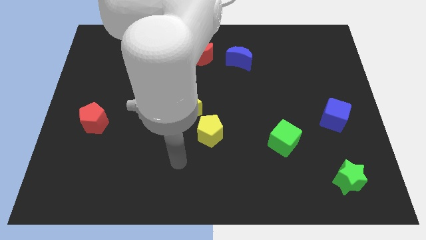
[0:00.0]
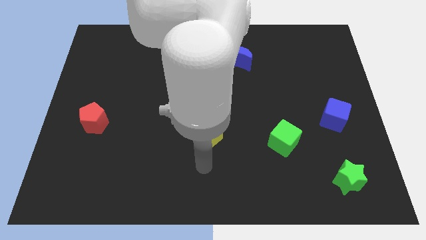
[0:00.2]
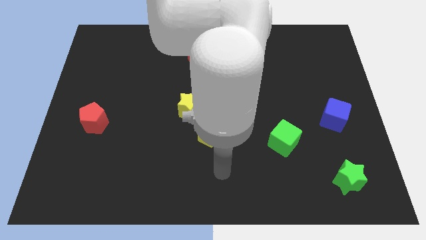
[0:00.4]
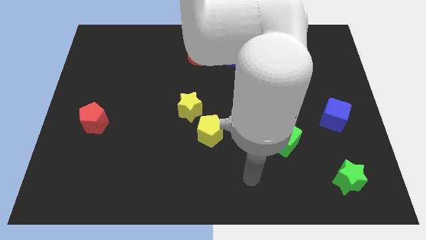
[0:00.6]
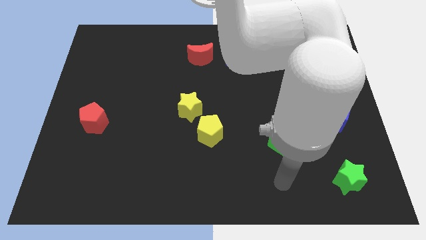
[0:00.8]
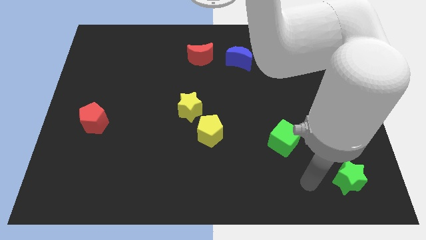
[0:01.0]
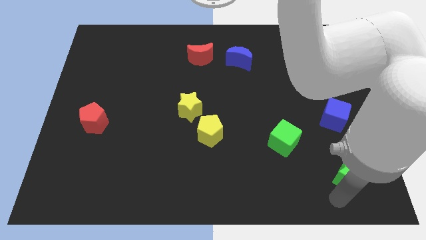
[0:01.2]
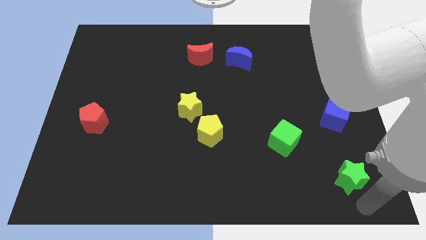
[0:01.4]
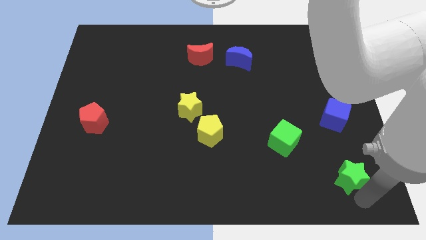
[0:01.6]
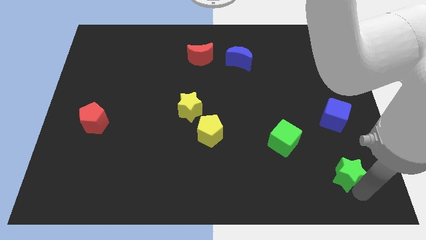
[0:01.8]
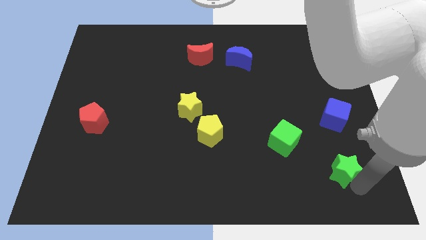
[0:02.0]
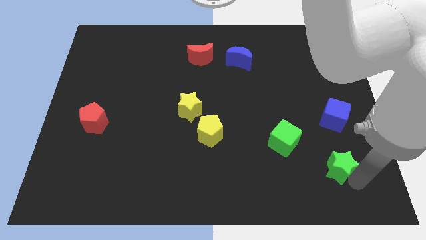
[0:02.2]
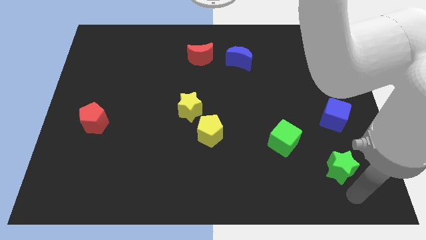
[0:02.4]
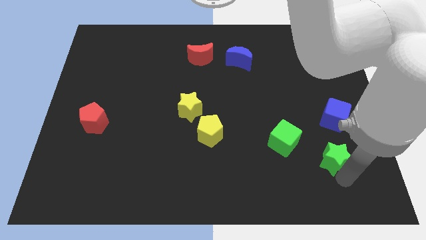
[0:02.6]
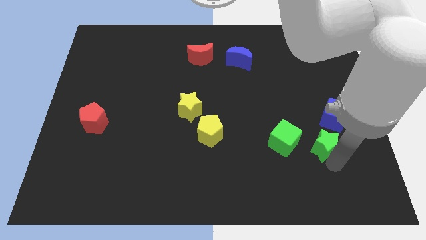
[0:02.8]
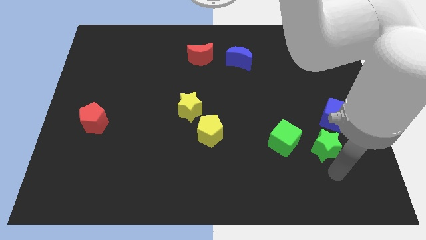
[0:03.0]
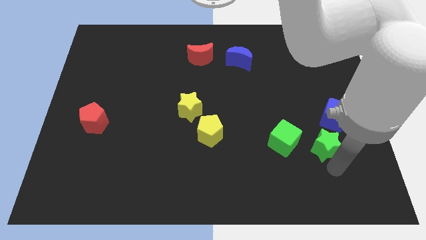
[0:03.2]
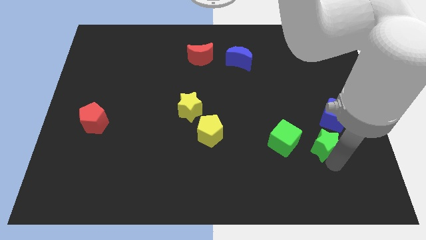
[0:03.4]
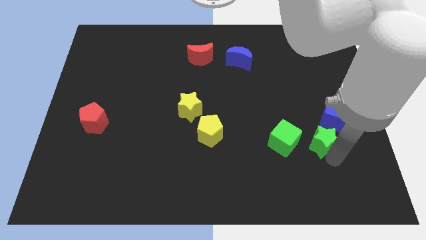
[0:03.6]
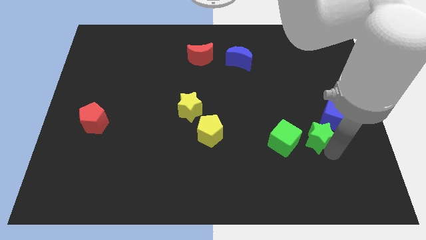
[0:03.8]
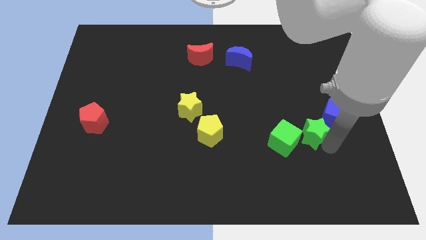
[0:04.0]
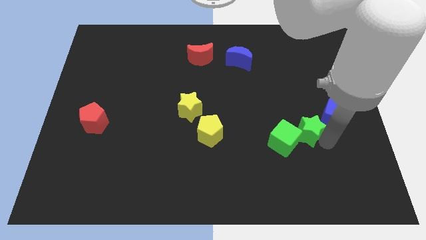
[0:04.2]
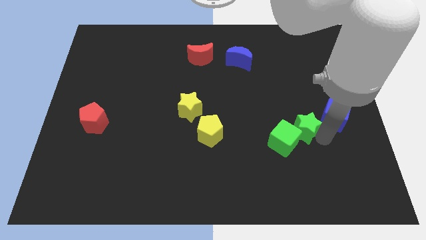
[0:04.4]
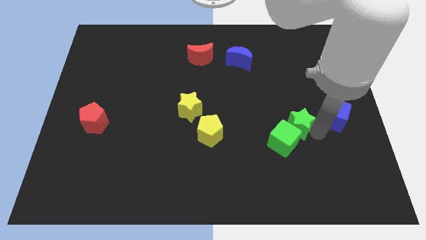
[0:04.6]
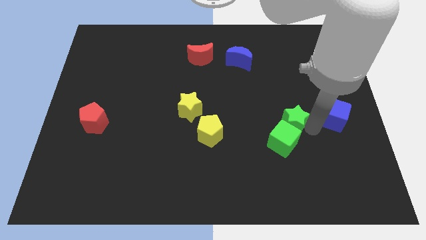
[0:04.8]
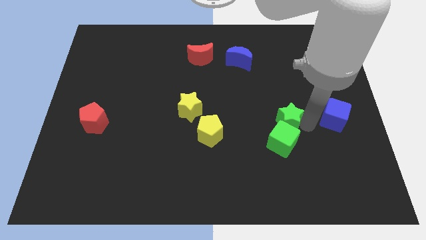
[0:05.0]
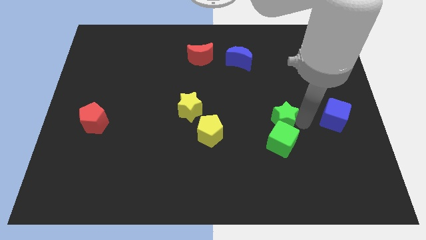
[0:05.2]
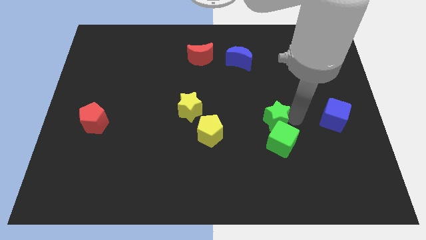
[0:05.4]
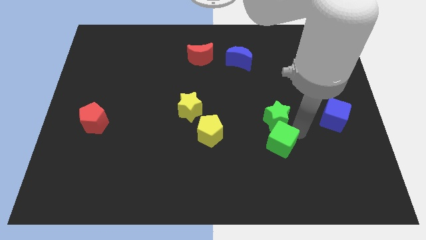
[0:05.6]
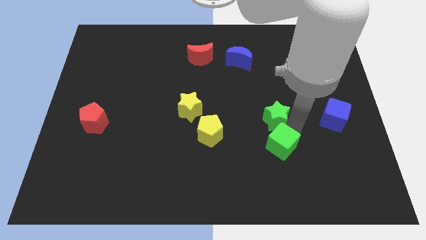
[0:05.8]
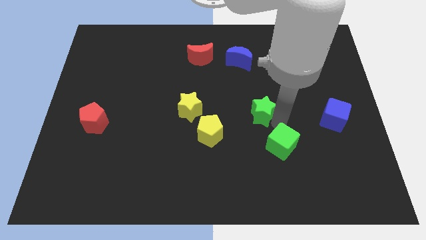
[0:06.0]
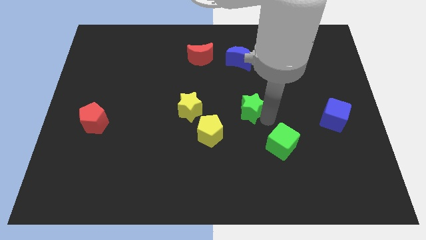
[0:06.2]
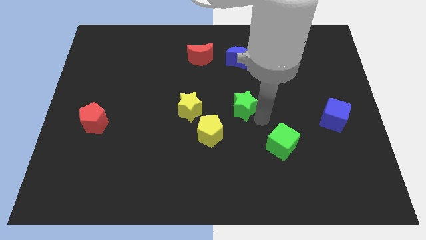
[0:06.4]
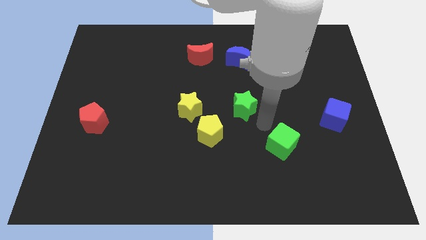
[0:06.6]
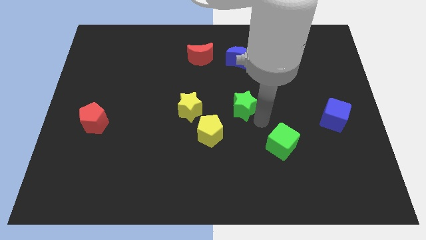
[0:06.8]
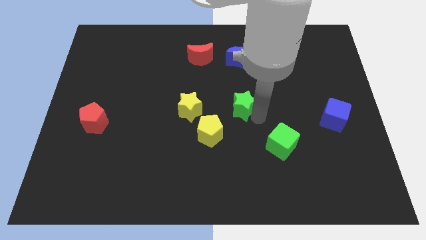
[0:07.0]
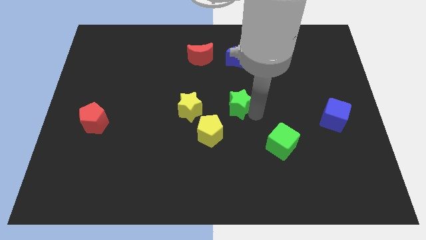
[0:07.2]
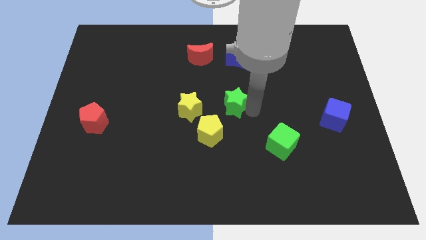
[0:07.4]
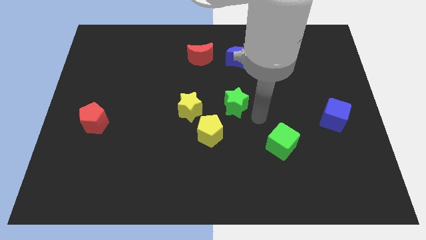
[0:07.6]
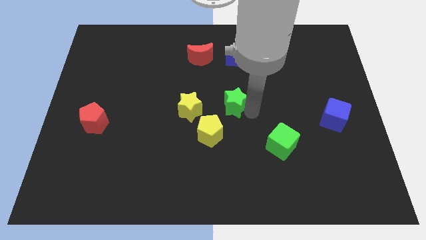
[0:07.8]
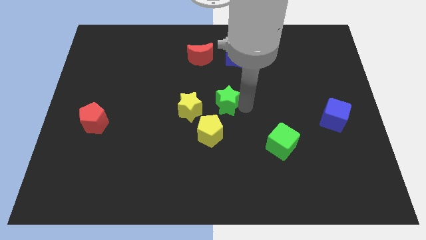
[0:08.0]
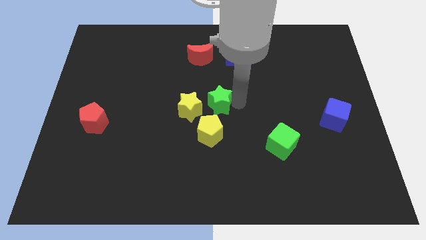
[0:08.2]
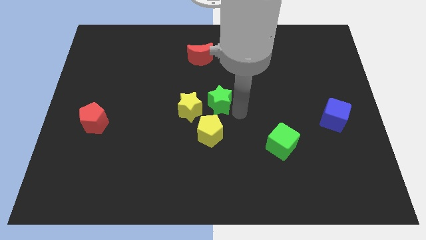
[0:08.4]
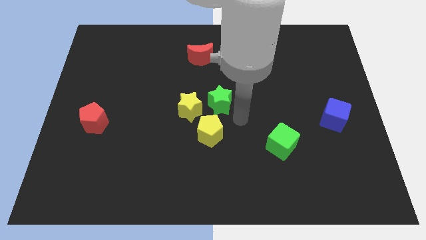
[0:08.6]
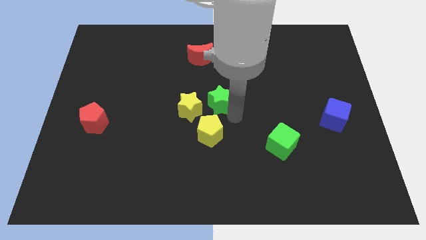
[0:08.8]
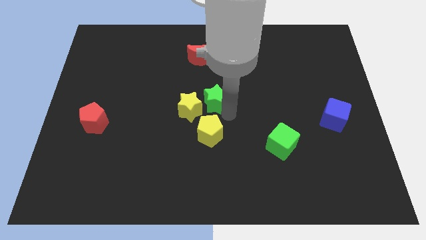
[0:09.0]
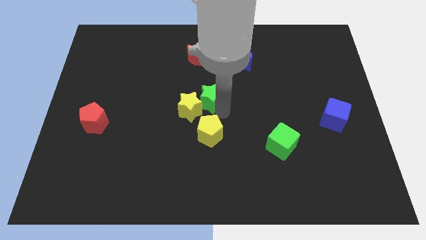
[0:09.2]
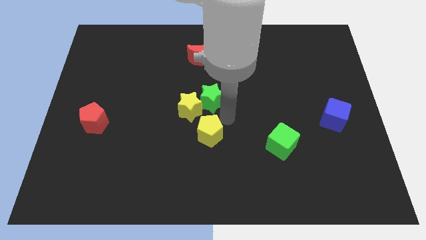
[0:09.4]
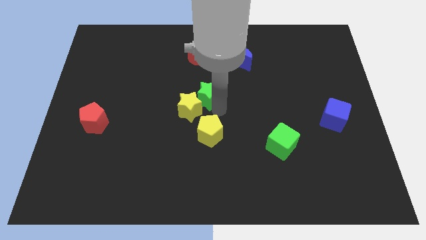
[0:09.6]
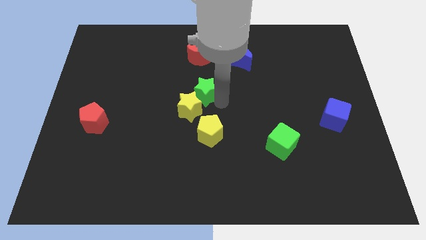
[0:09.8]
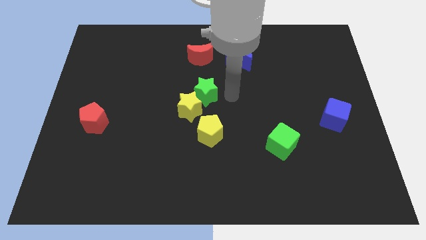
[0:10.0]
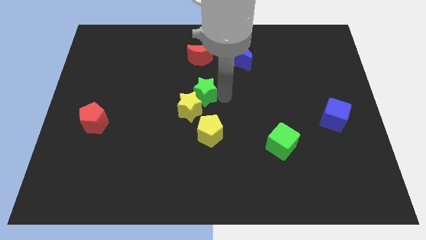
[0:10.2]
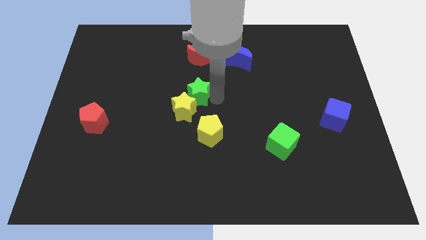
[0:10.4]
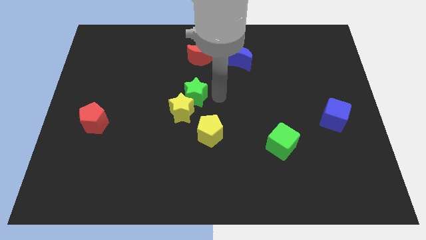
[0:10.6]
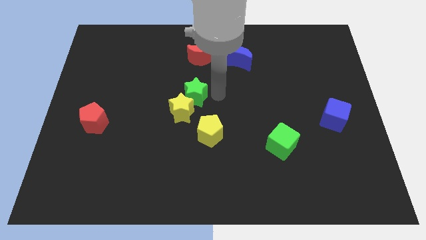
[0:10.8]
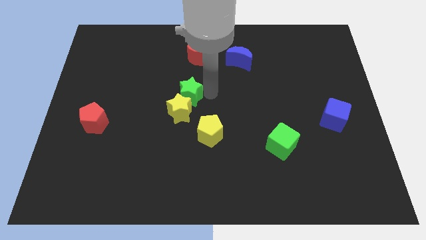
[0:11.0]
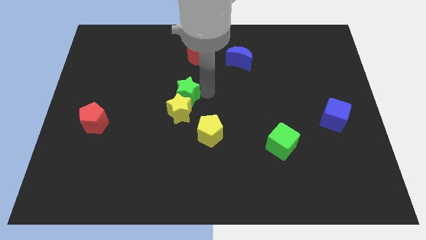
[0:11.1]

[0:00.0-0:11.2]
slide the green star to the top left side of the yellow star

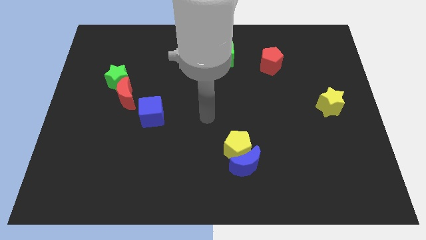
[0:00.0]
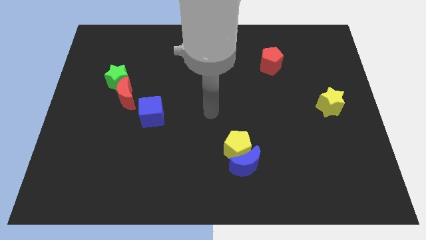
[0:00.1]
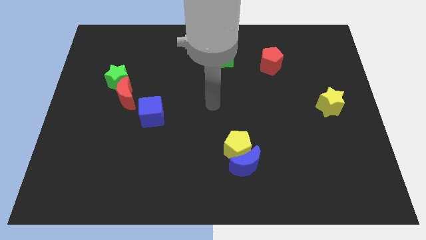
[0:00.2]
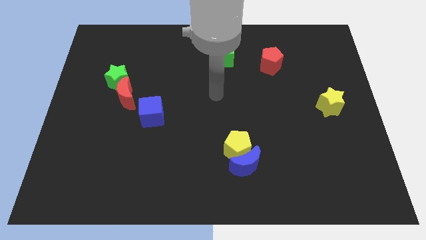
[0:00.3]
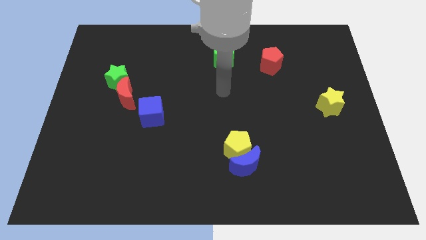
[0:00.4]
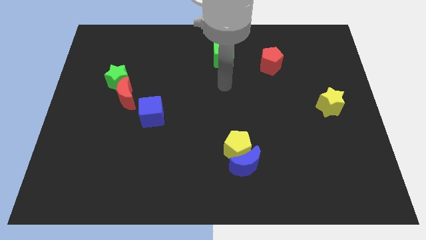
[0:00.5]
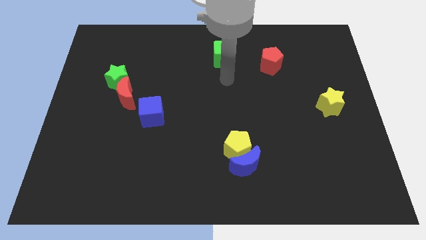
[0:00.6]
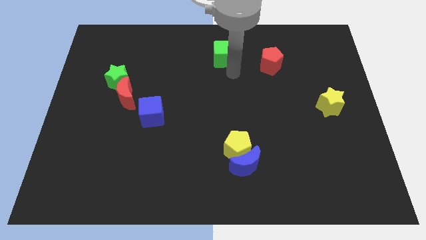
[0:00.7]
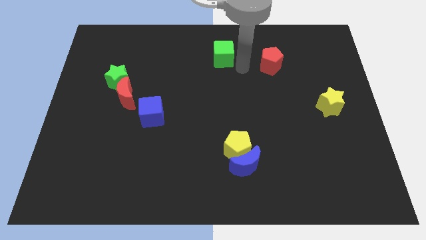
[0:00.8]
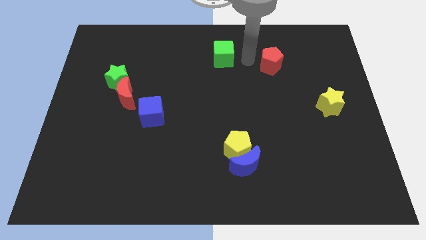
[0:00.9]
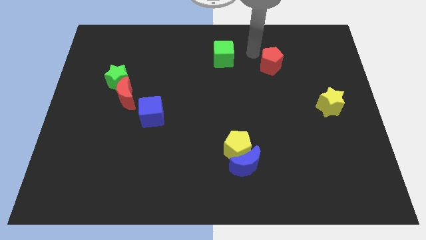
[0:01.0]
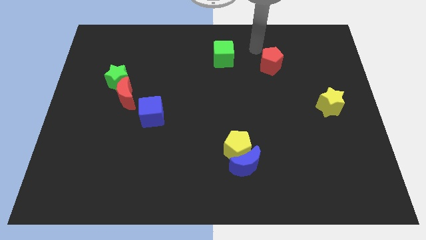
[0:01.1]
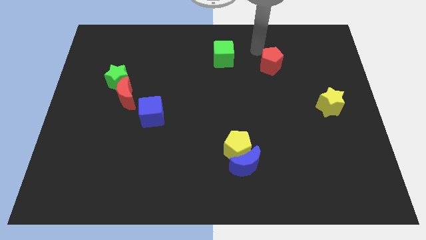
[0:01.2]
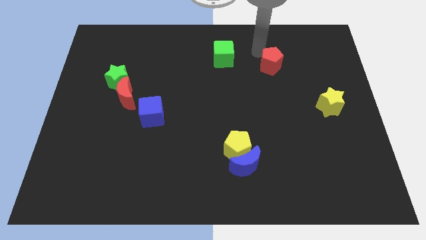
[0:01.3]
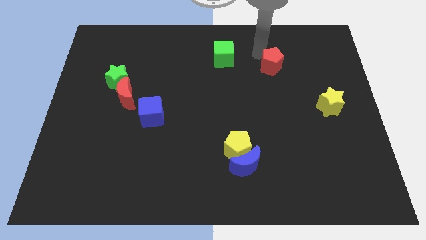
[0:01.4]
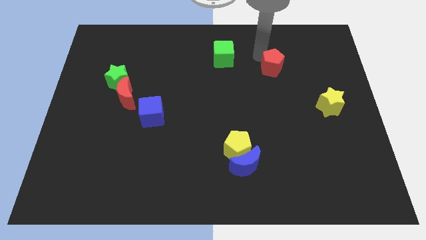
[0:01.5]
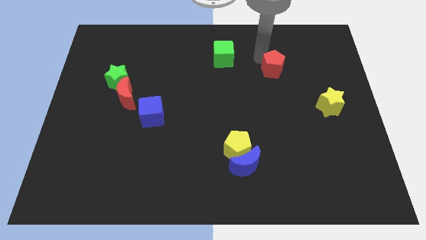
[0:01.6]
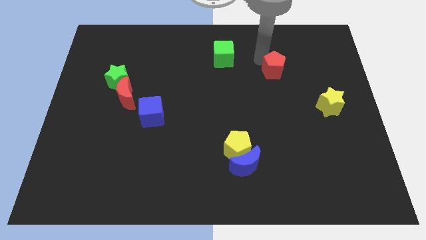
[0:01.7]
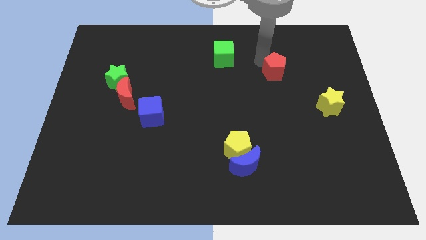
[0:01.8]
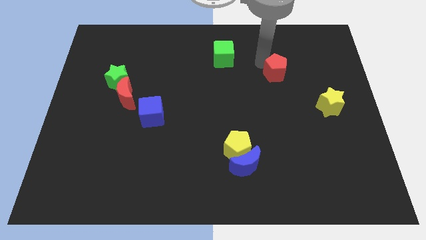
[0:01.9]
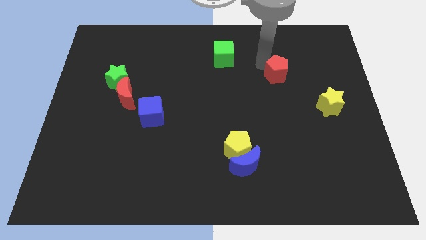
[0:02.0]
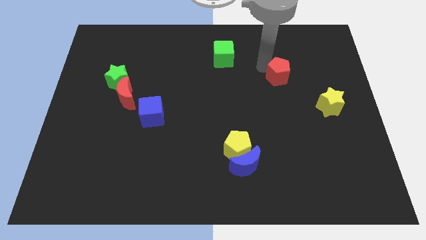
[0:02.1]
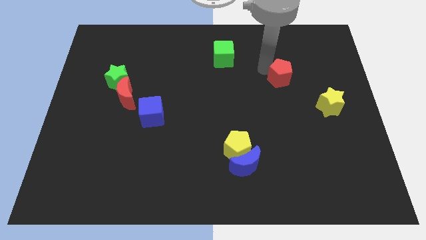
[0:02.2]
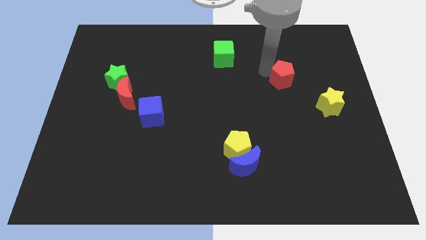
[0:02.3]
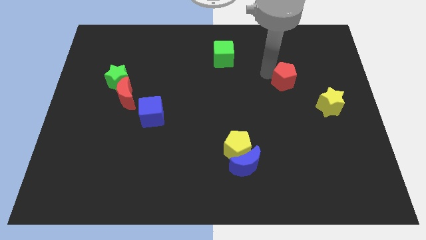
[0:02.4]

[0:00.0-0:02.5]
move the red pentagon to the top left side of the yellow star

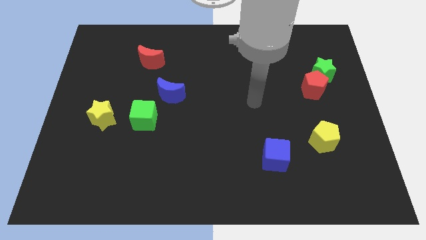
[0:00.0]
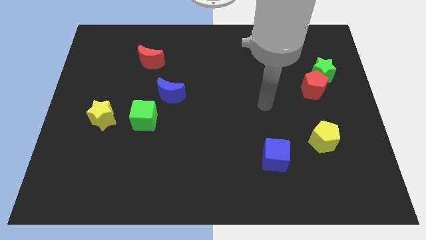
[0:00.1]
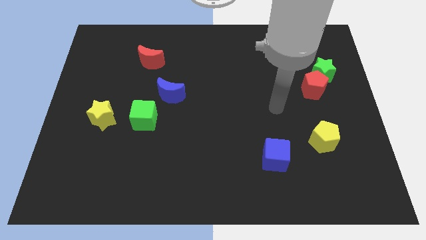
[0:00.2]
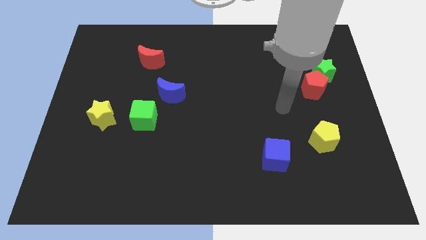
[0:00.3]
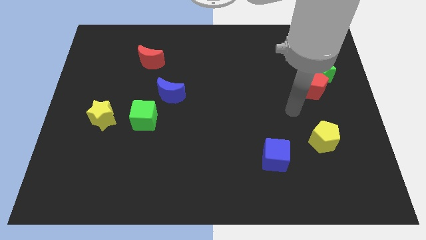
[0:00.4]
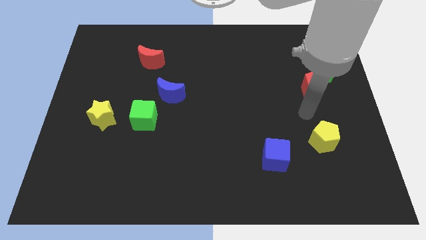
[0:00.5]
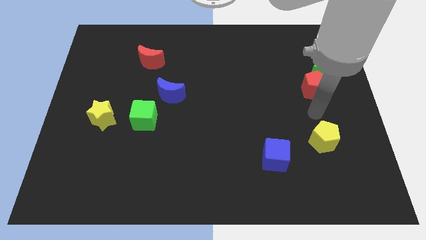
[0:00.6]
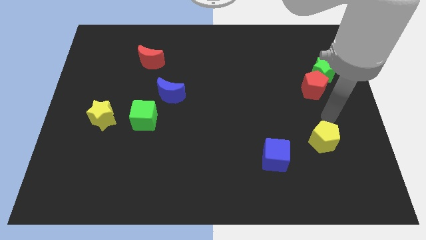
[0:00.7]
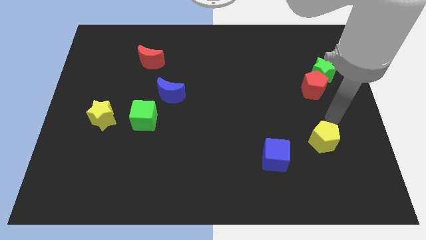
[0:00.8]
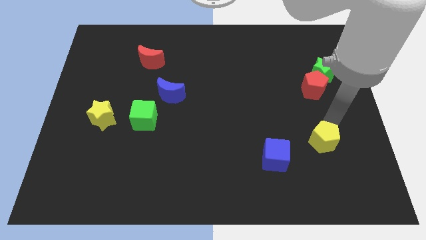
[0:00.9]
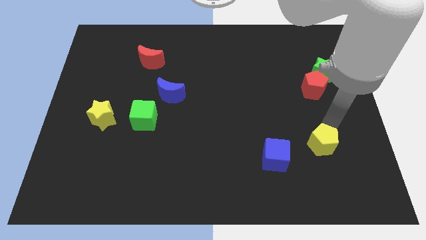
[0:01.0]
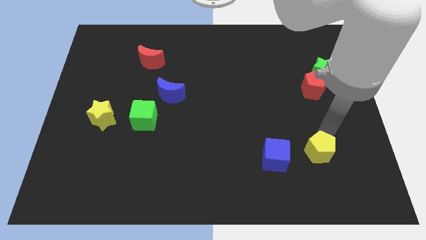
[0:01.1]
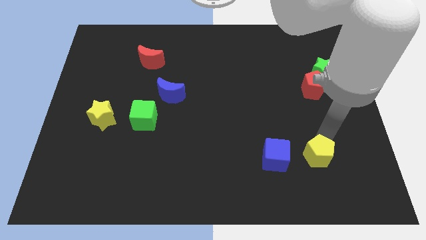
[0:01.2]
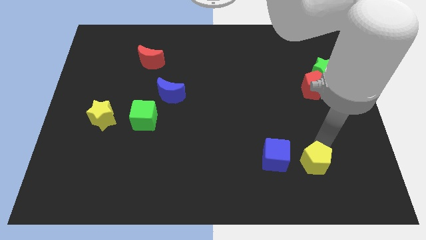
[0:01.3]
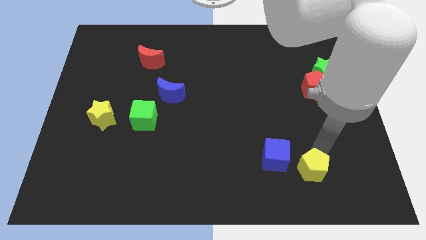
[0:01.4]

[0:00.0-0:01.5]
slide the yellow pentagon diagonally down and to the right of the blue cube
